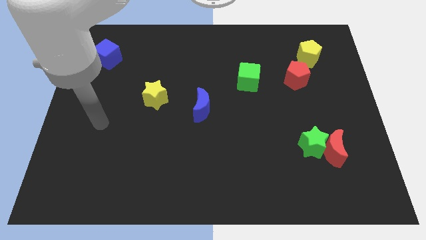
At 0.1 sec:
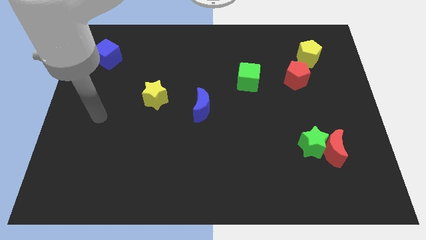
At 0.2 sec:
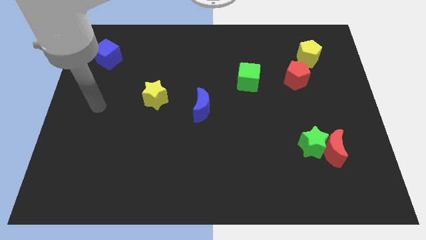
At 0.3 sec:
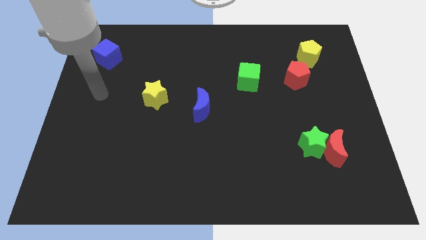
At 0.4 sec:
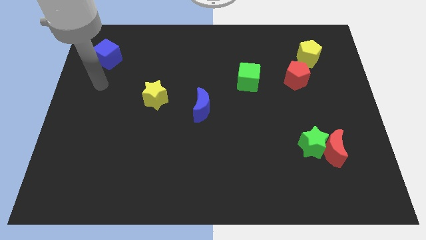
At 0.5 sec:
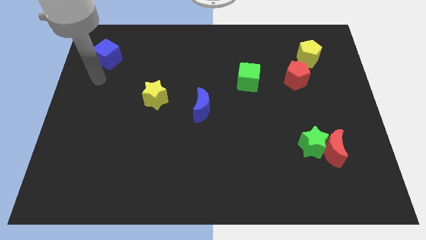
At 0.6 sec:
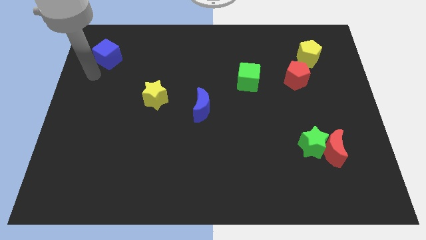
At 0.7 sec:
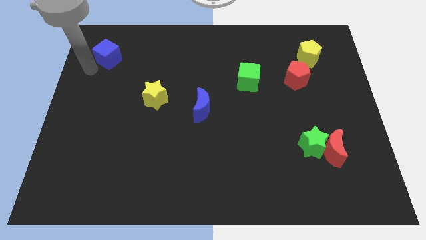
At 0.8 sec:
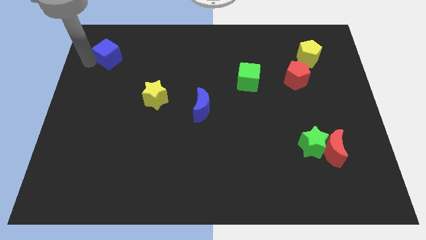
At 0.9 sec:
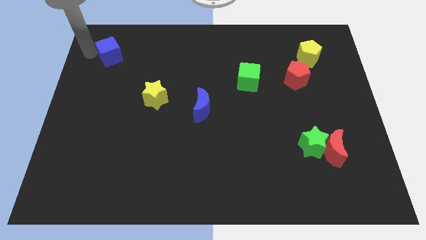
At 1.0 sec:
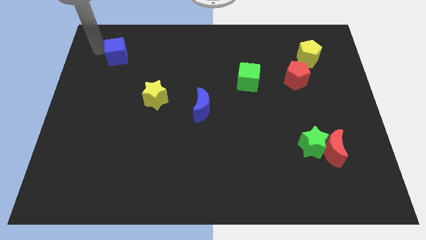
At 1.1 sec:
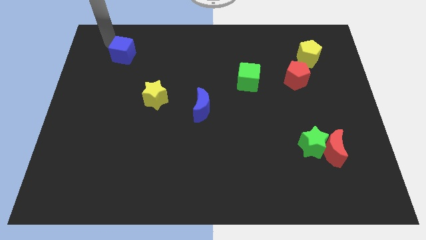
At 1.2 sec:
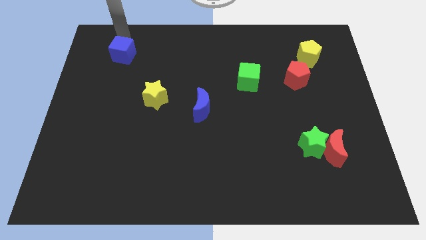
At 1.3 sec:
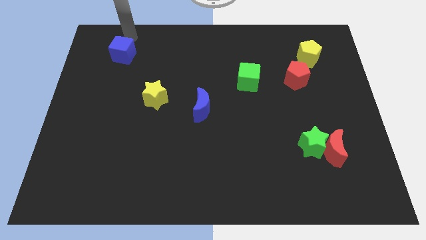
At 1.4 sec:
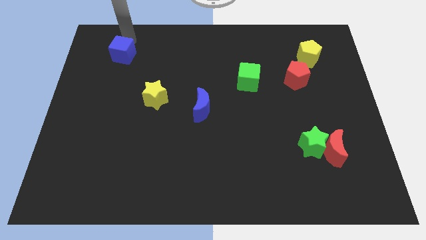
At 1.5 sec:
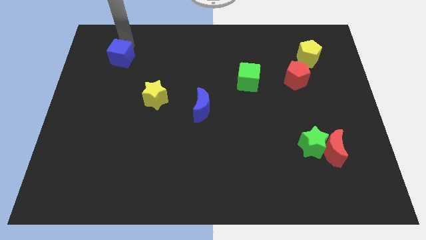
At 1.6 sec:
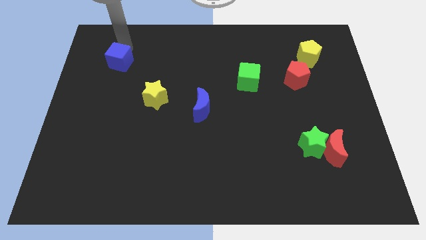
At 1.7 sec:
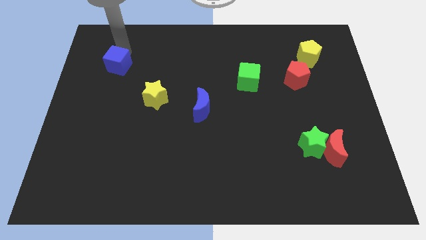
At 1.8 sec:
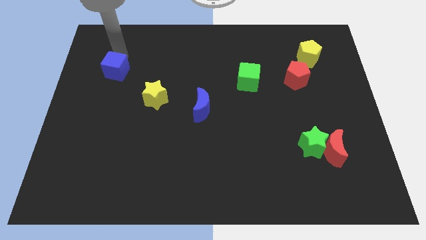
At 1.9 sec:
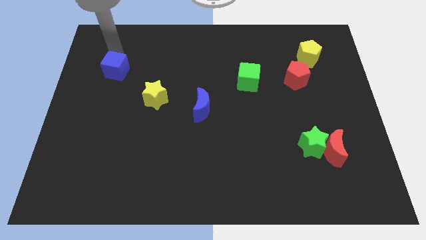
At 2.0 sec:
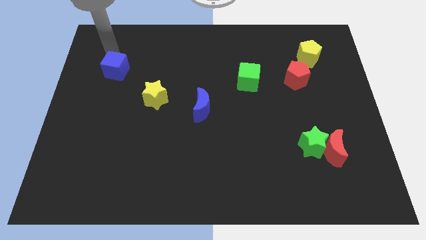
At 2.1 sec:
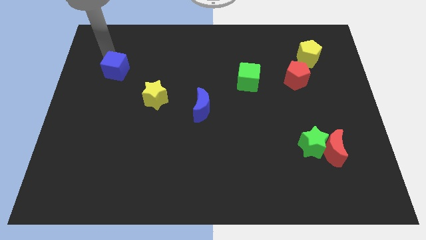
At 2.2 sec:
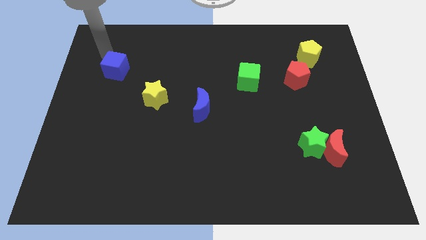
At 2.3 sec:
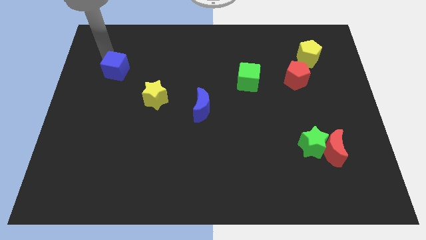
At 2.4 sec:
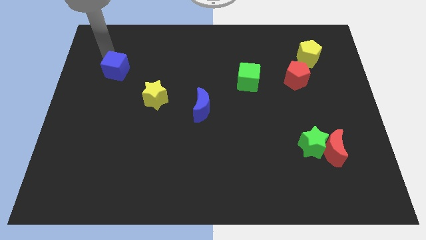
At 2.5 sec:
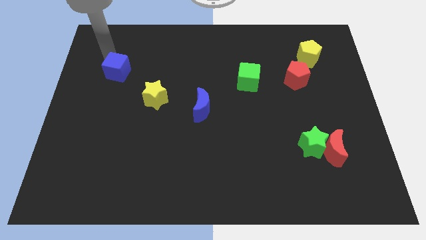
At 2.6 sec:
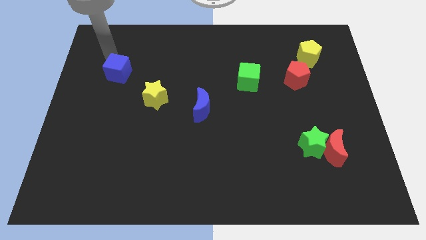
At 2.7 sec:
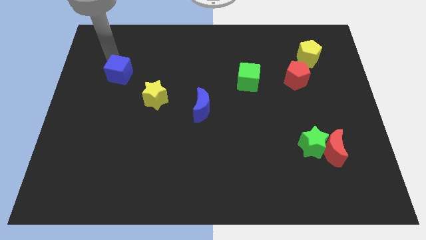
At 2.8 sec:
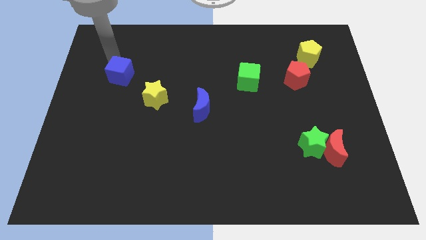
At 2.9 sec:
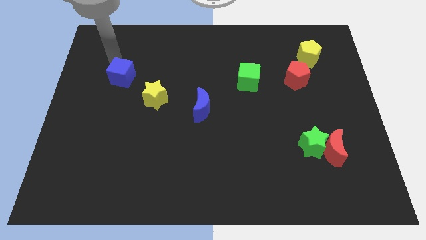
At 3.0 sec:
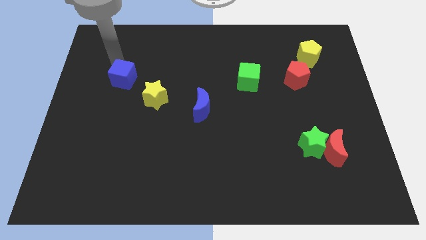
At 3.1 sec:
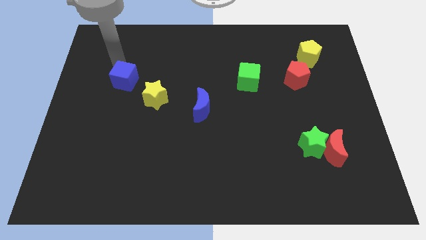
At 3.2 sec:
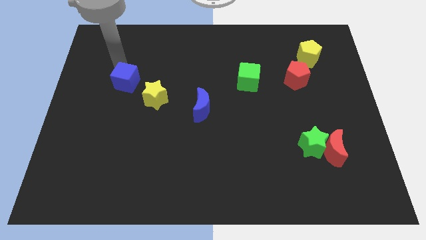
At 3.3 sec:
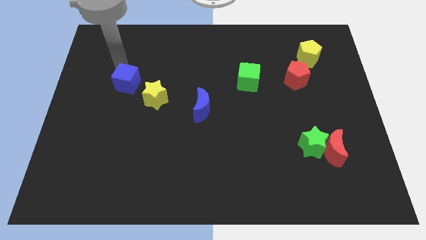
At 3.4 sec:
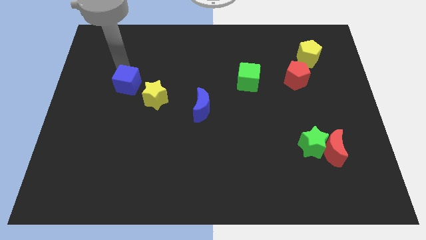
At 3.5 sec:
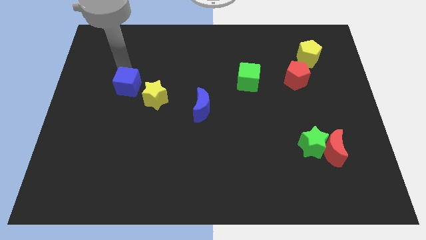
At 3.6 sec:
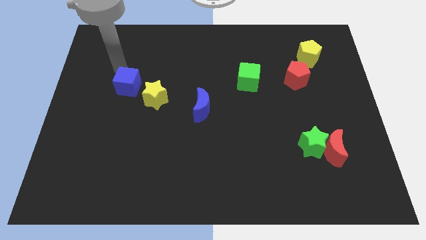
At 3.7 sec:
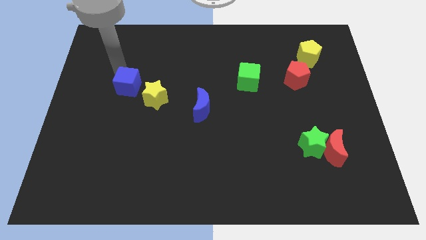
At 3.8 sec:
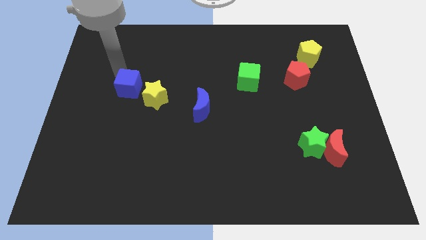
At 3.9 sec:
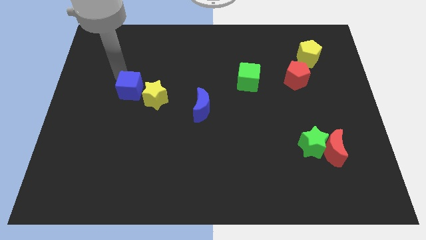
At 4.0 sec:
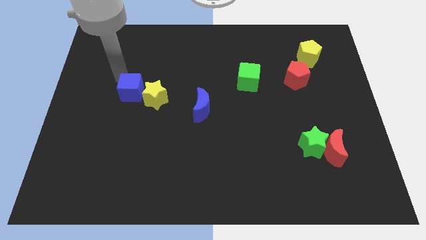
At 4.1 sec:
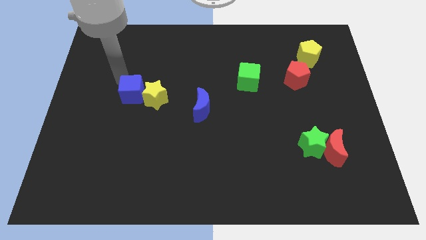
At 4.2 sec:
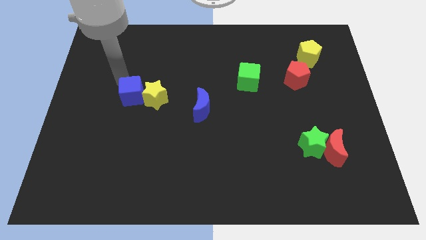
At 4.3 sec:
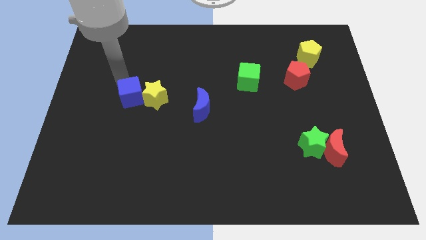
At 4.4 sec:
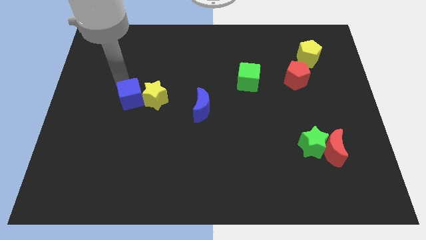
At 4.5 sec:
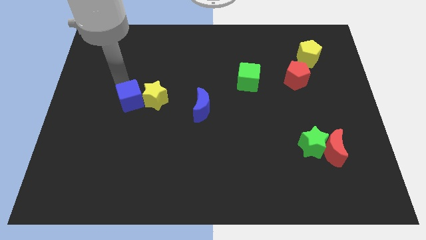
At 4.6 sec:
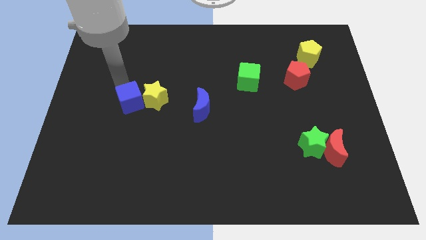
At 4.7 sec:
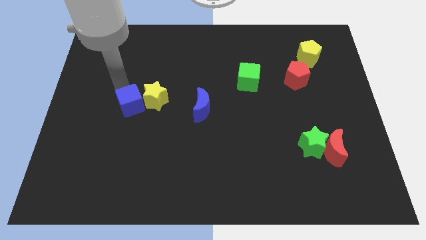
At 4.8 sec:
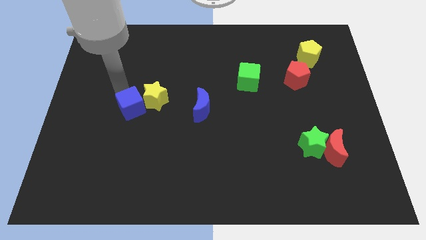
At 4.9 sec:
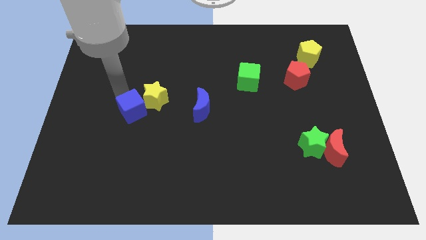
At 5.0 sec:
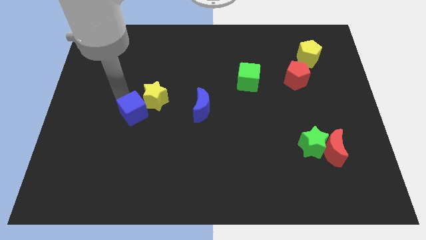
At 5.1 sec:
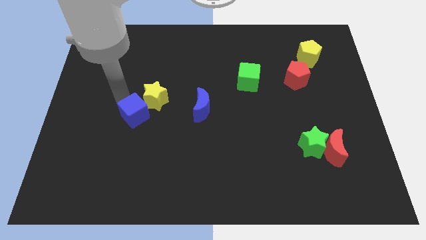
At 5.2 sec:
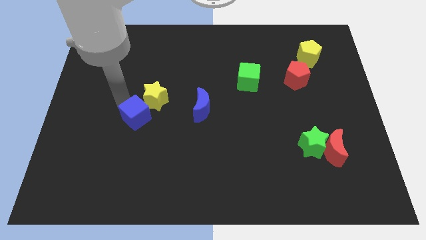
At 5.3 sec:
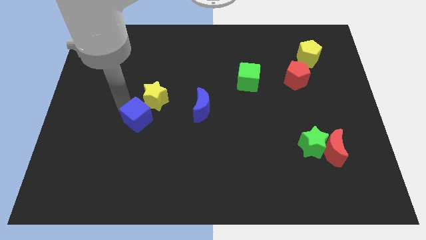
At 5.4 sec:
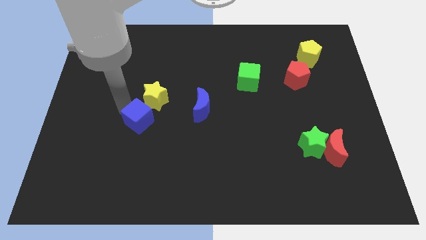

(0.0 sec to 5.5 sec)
slide the blue cube downwards and right

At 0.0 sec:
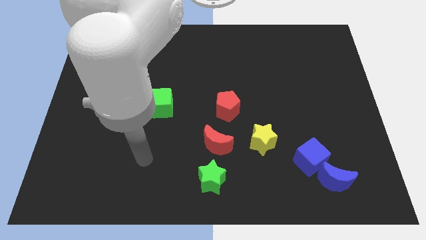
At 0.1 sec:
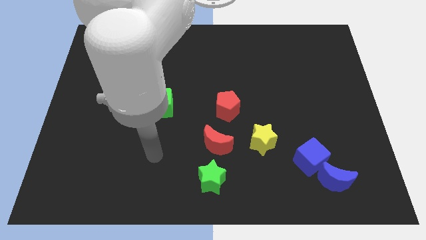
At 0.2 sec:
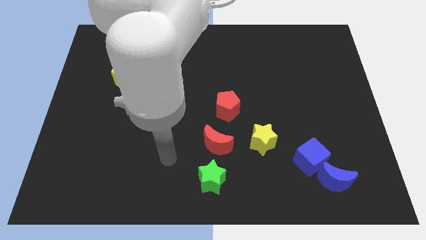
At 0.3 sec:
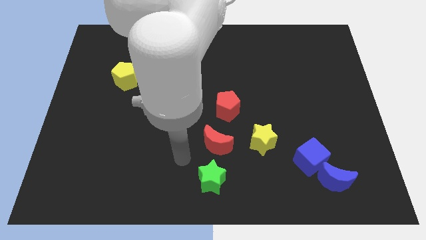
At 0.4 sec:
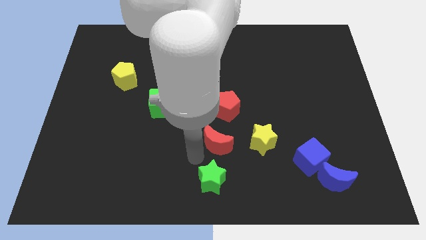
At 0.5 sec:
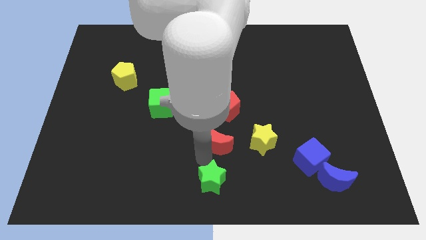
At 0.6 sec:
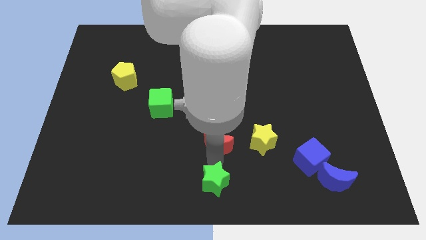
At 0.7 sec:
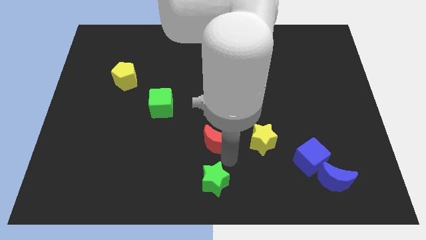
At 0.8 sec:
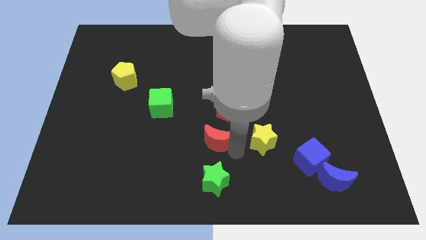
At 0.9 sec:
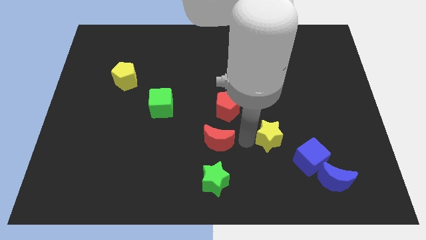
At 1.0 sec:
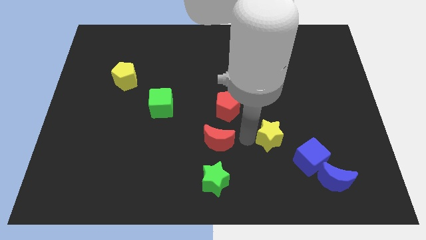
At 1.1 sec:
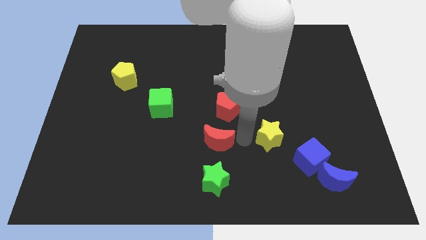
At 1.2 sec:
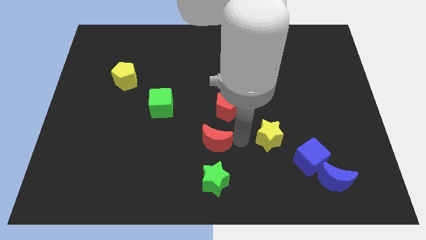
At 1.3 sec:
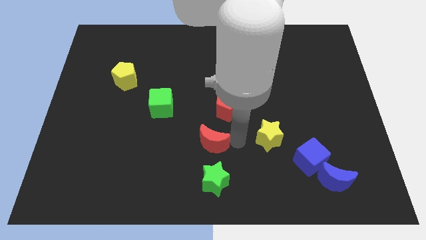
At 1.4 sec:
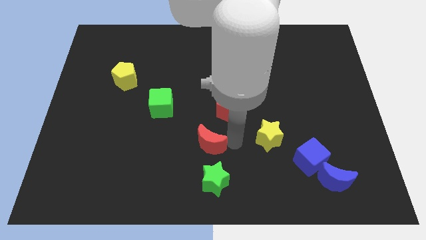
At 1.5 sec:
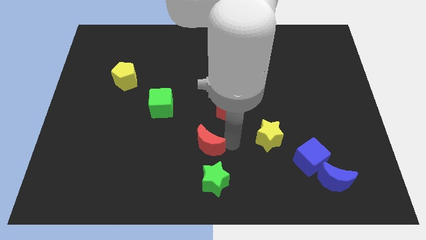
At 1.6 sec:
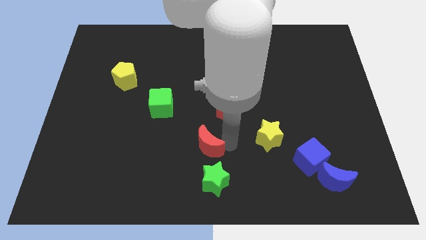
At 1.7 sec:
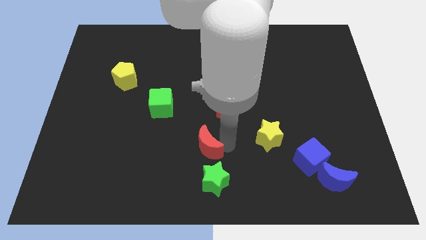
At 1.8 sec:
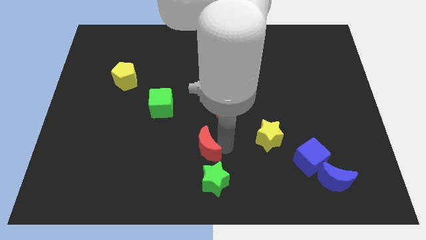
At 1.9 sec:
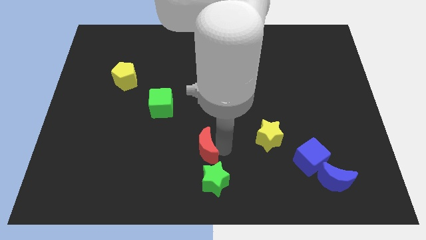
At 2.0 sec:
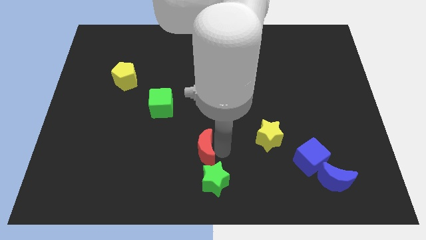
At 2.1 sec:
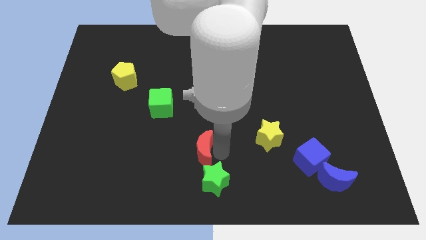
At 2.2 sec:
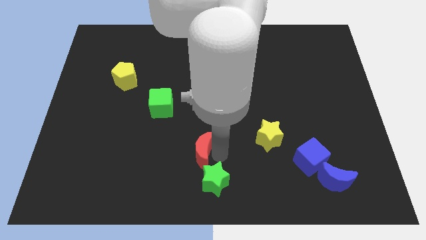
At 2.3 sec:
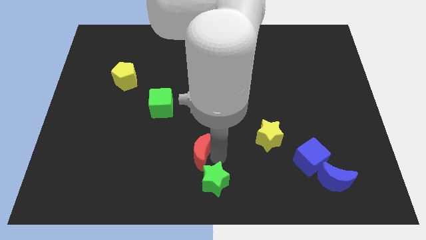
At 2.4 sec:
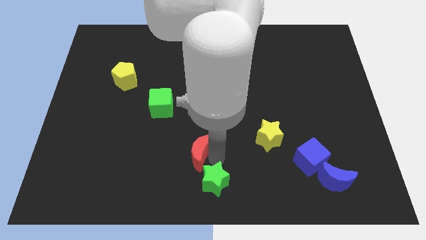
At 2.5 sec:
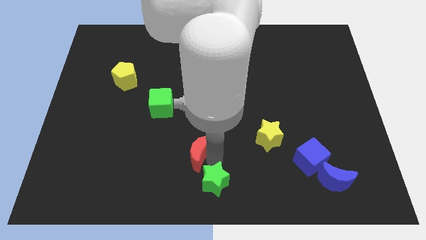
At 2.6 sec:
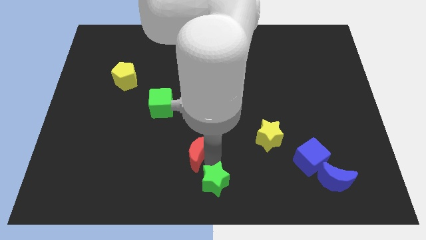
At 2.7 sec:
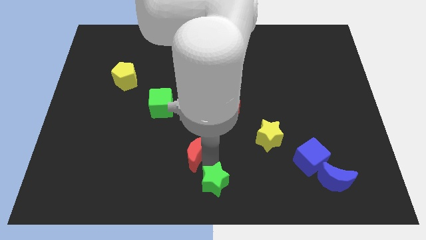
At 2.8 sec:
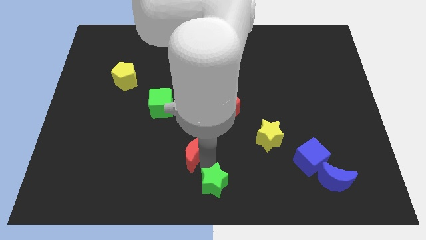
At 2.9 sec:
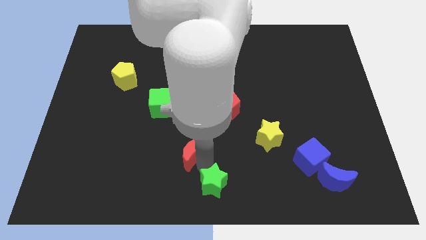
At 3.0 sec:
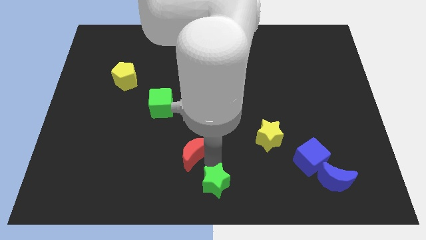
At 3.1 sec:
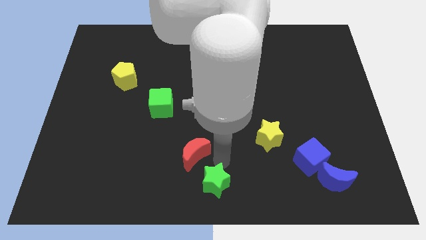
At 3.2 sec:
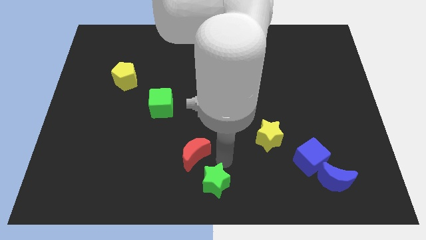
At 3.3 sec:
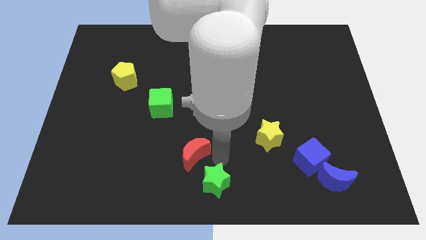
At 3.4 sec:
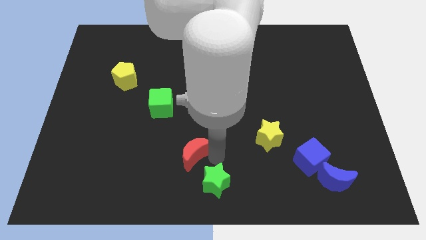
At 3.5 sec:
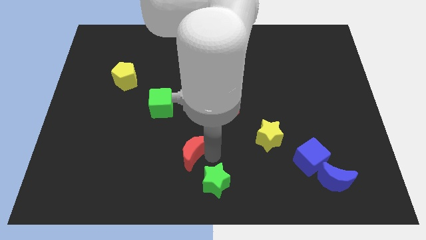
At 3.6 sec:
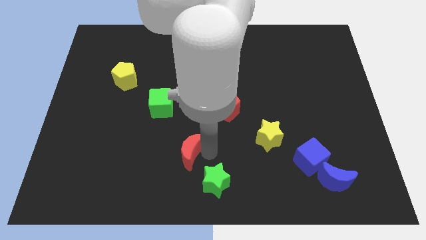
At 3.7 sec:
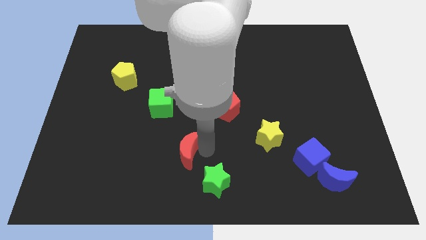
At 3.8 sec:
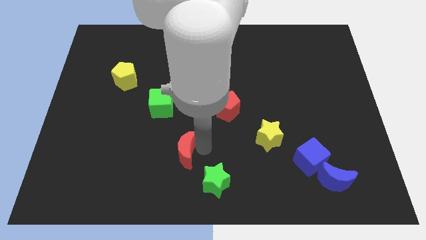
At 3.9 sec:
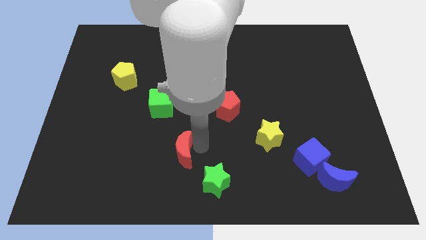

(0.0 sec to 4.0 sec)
slightly slide the red moon left
